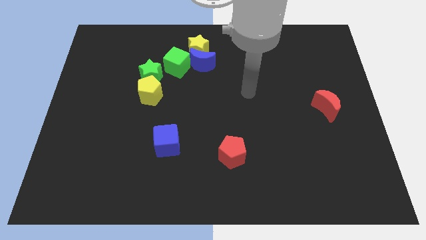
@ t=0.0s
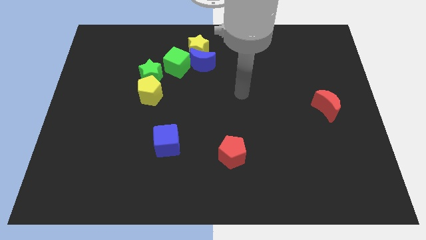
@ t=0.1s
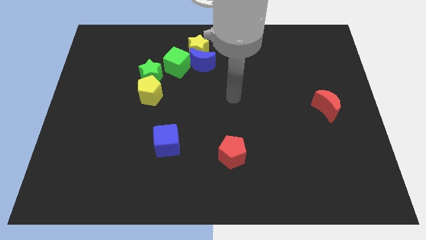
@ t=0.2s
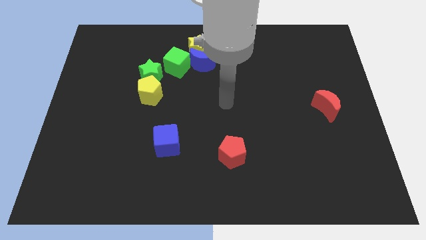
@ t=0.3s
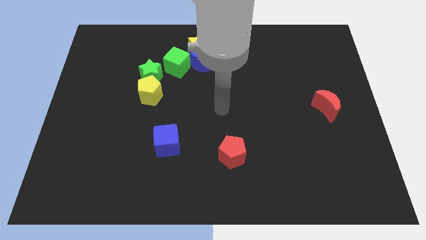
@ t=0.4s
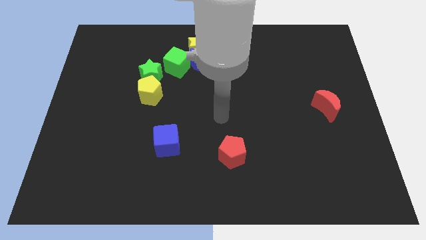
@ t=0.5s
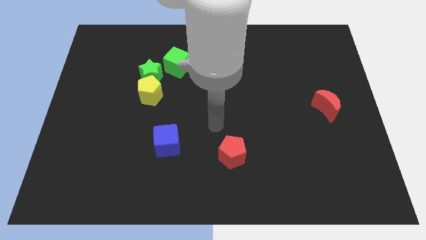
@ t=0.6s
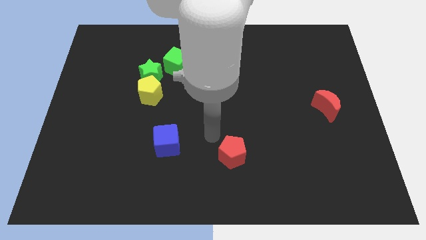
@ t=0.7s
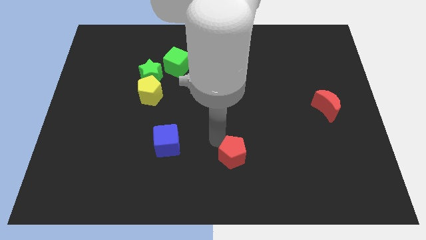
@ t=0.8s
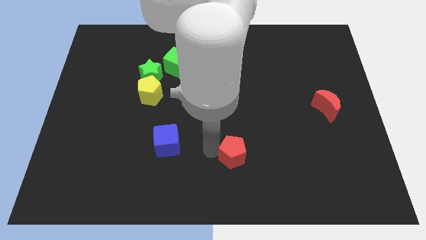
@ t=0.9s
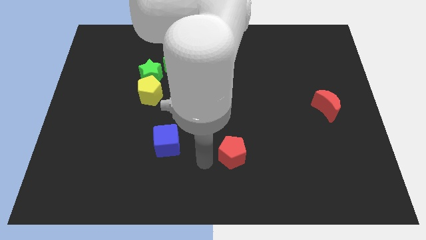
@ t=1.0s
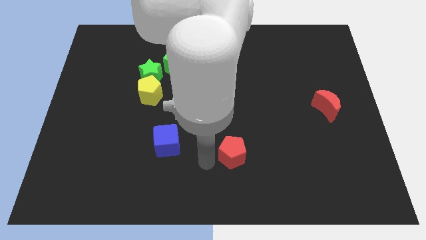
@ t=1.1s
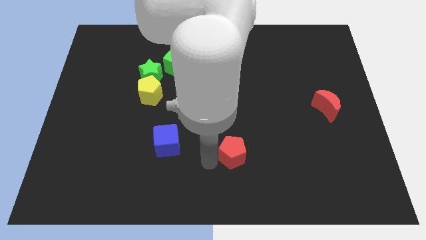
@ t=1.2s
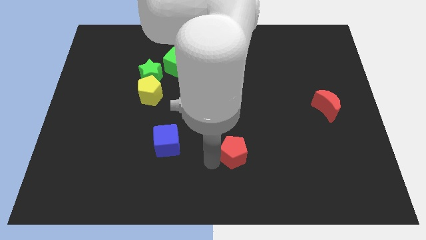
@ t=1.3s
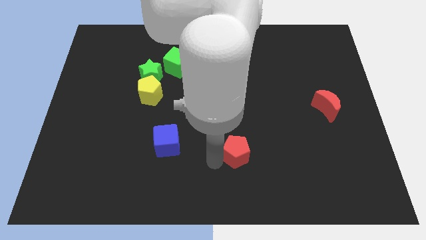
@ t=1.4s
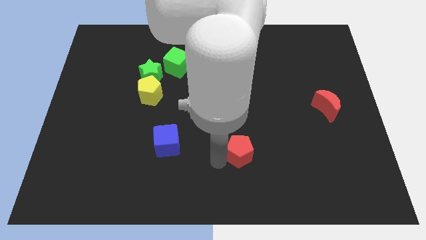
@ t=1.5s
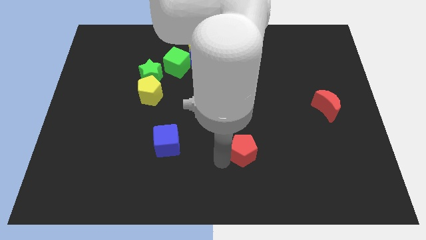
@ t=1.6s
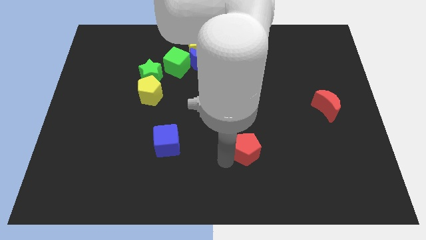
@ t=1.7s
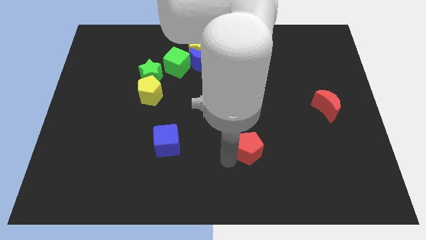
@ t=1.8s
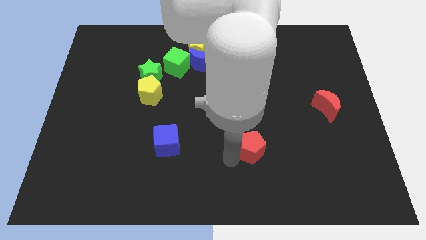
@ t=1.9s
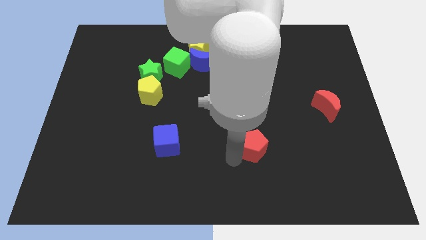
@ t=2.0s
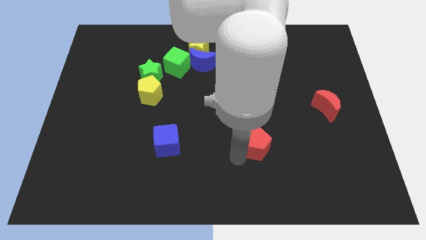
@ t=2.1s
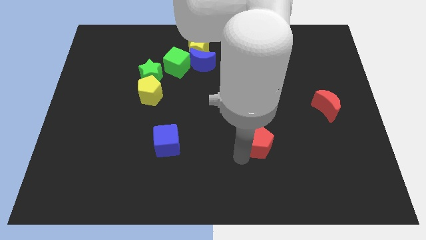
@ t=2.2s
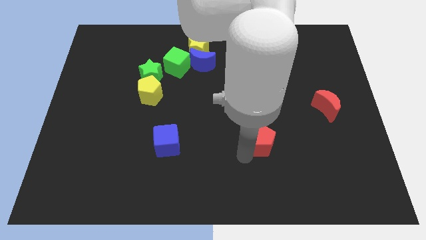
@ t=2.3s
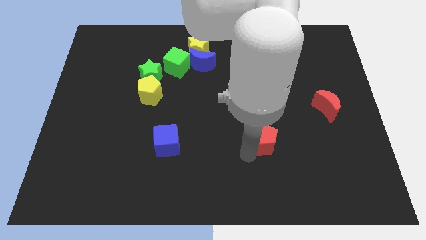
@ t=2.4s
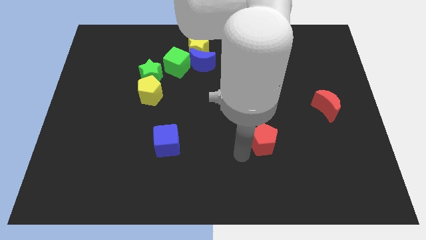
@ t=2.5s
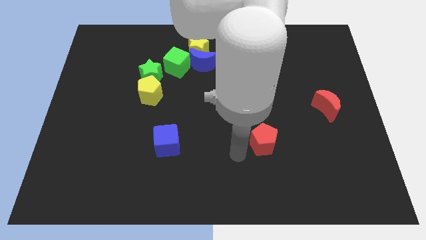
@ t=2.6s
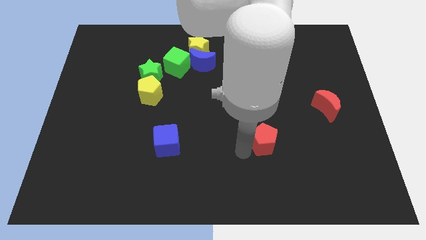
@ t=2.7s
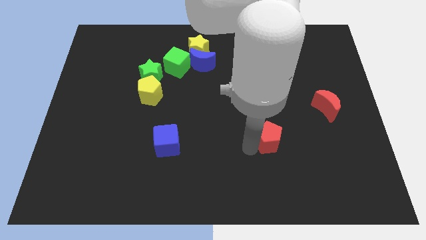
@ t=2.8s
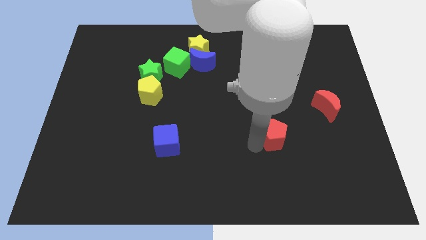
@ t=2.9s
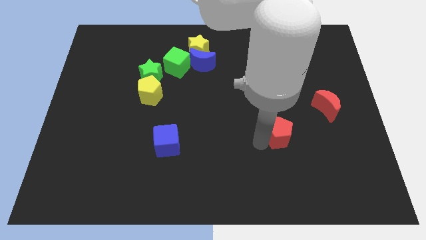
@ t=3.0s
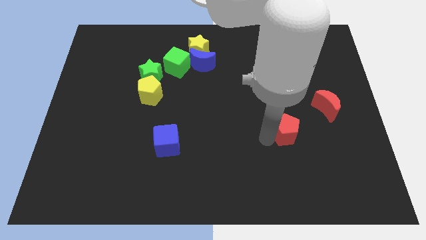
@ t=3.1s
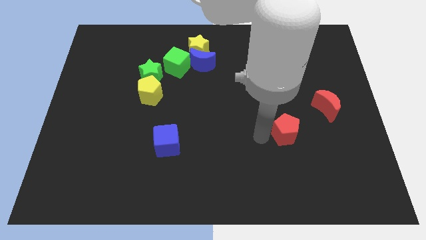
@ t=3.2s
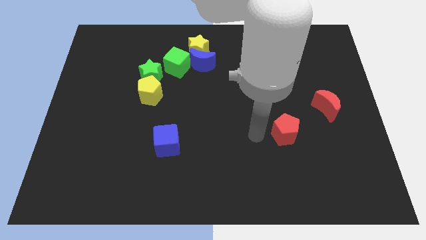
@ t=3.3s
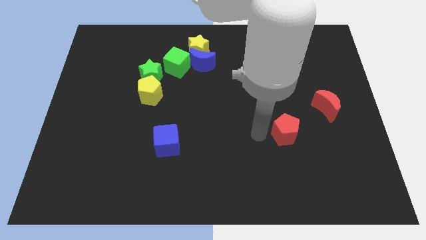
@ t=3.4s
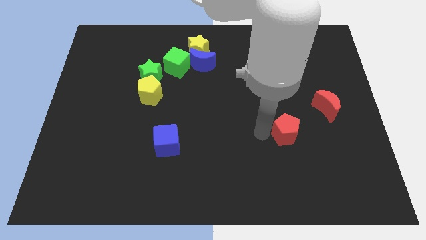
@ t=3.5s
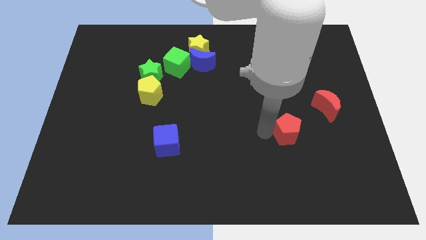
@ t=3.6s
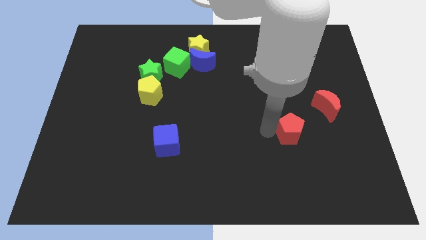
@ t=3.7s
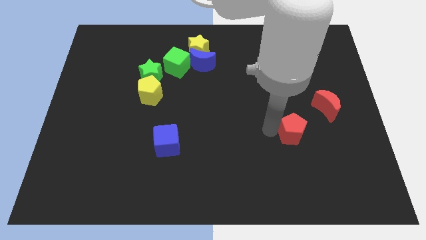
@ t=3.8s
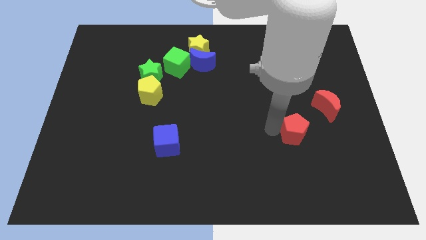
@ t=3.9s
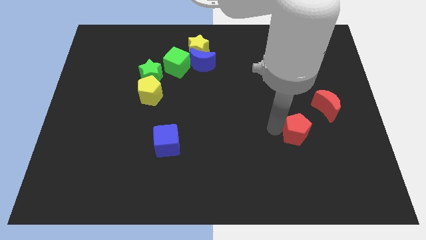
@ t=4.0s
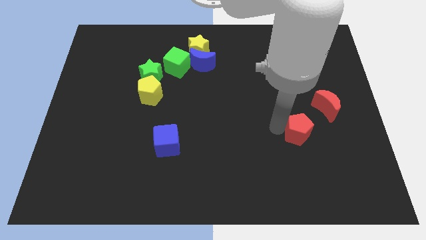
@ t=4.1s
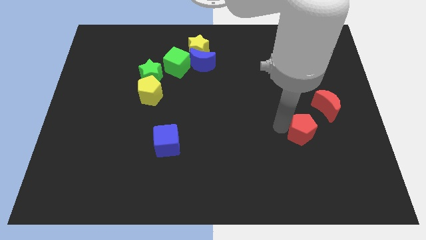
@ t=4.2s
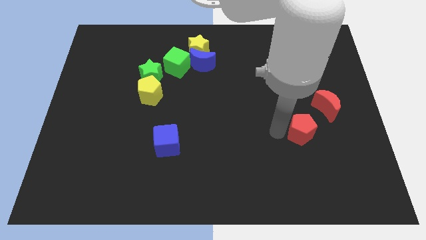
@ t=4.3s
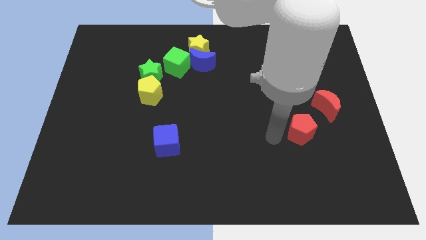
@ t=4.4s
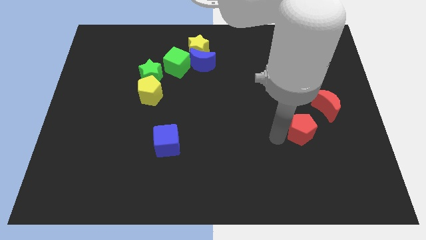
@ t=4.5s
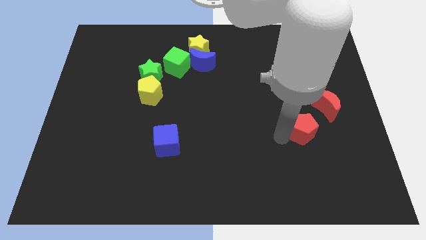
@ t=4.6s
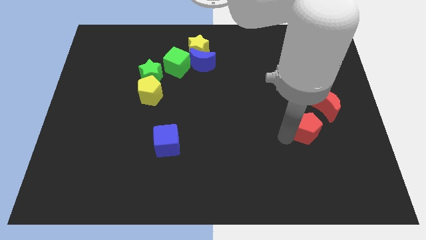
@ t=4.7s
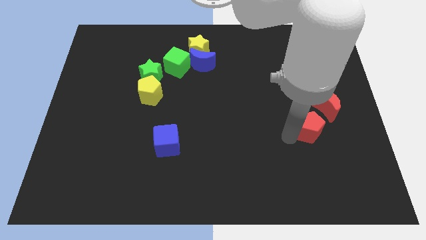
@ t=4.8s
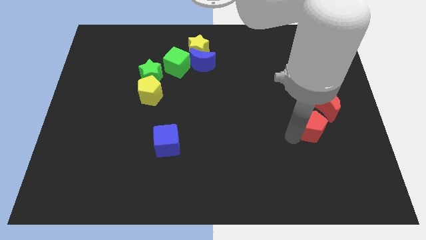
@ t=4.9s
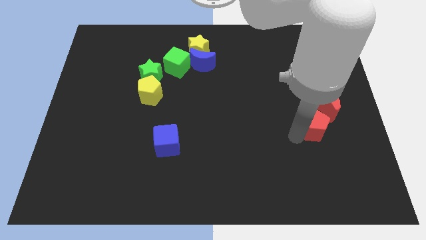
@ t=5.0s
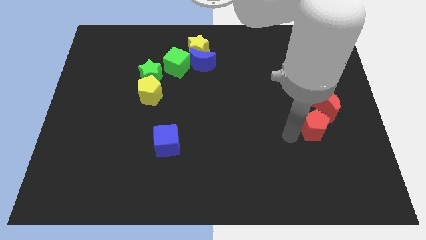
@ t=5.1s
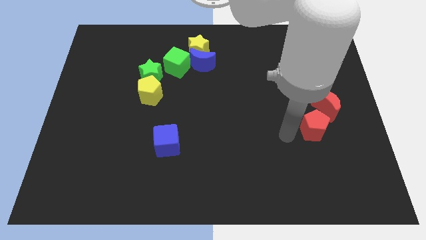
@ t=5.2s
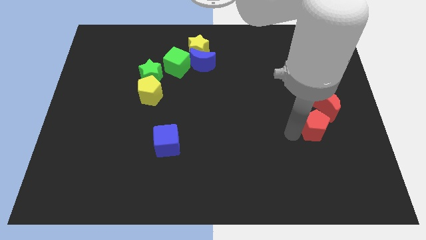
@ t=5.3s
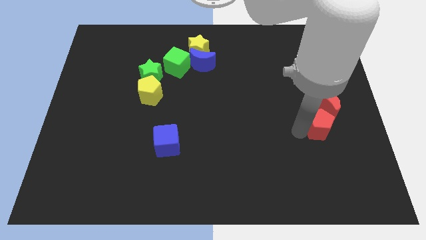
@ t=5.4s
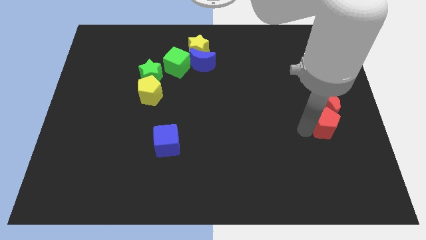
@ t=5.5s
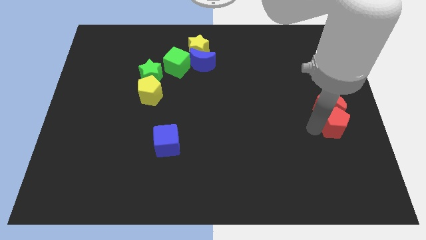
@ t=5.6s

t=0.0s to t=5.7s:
put the red pentagon to the right side of the board

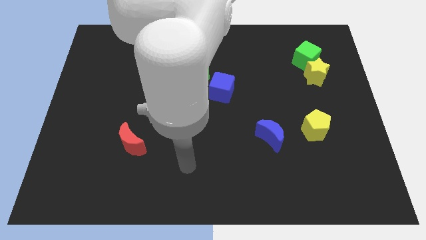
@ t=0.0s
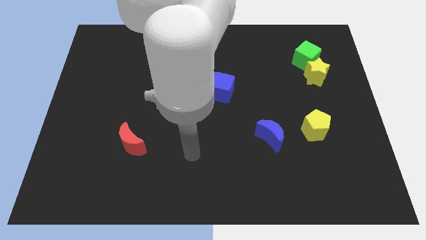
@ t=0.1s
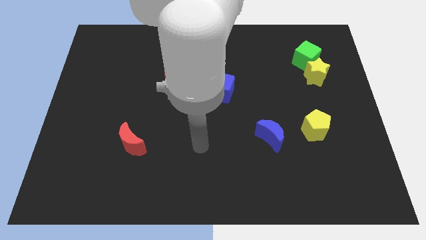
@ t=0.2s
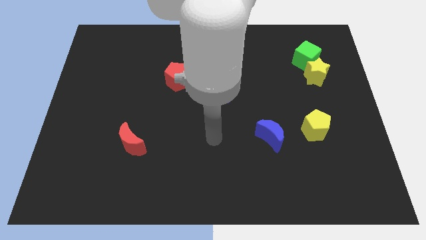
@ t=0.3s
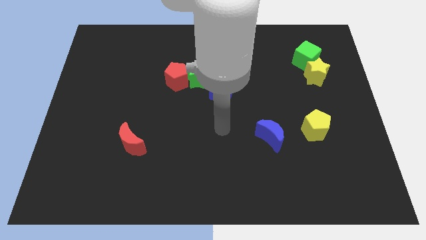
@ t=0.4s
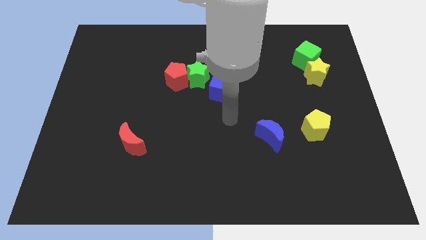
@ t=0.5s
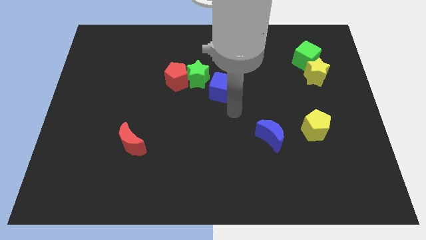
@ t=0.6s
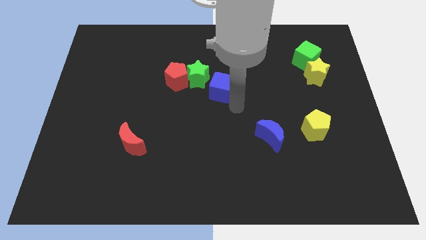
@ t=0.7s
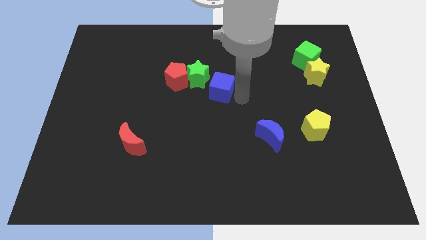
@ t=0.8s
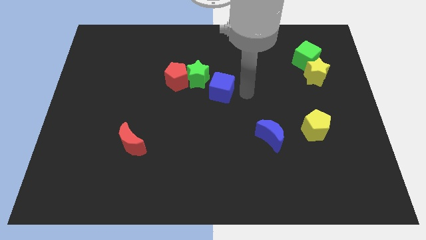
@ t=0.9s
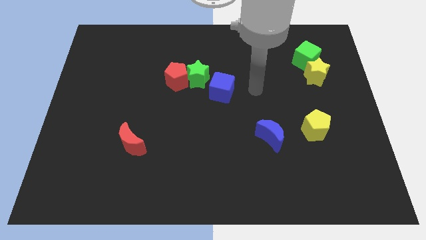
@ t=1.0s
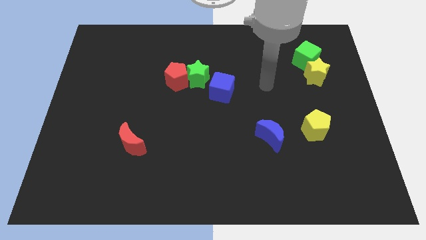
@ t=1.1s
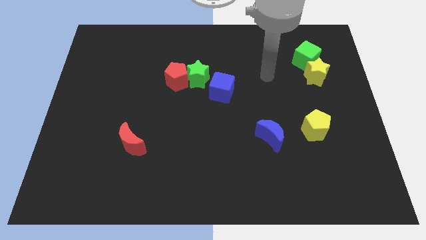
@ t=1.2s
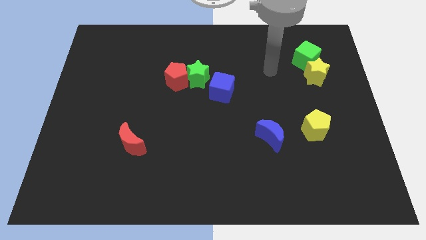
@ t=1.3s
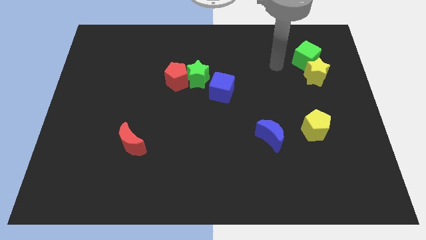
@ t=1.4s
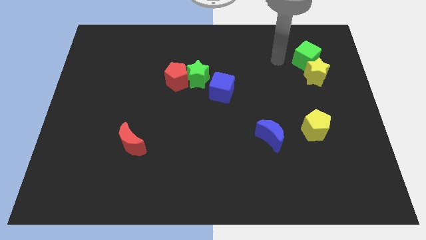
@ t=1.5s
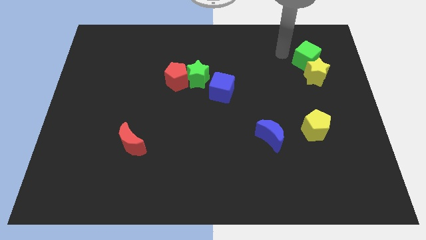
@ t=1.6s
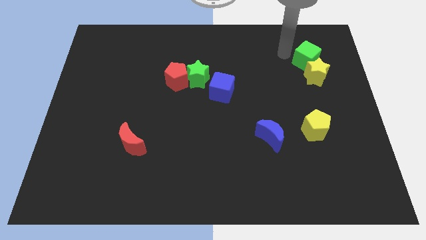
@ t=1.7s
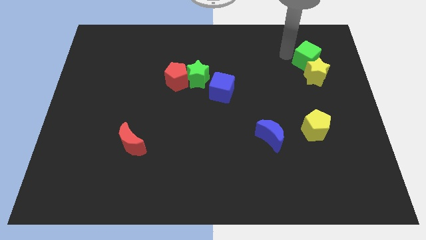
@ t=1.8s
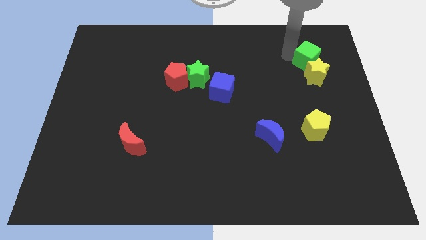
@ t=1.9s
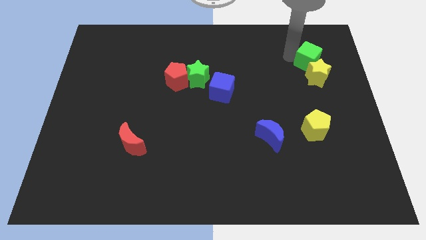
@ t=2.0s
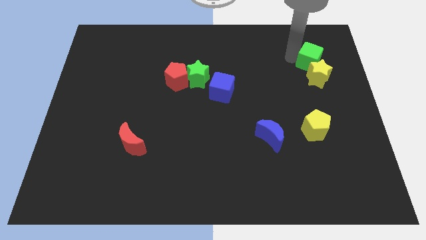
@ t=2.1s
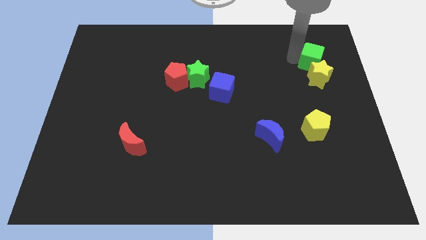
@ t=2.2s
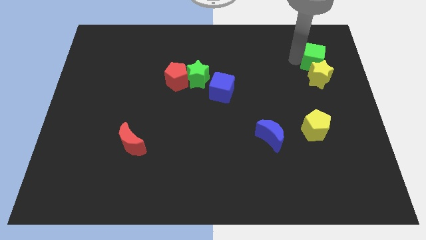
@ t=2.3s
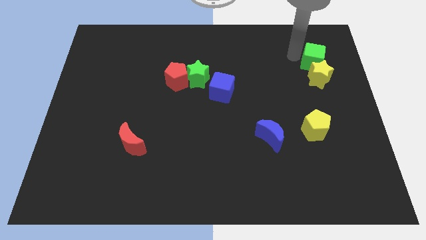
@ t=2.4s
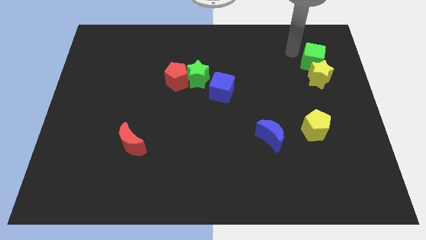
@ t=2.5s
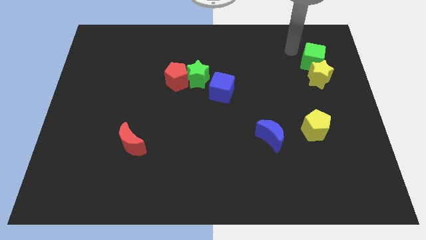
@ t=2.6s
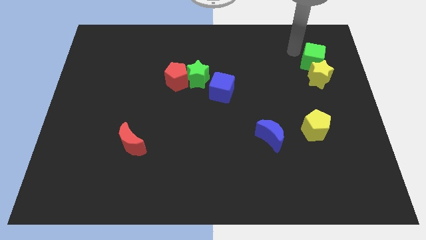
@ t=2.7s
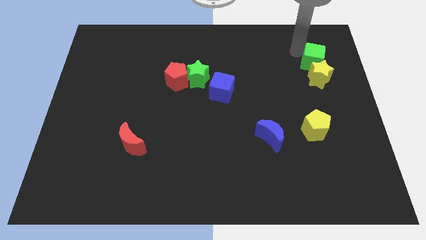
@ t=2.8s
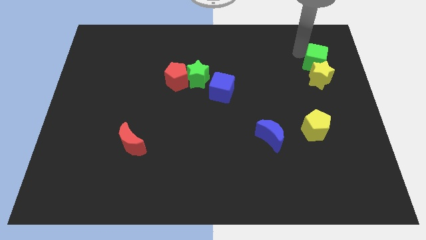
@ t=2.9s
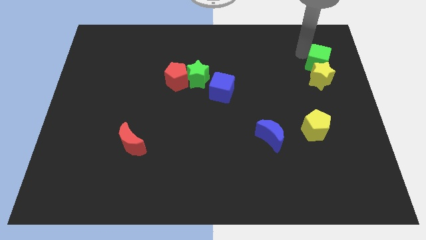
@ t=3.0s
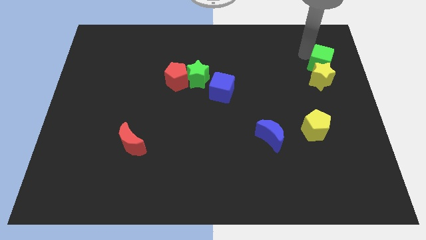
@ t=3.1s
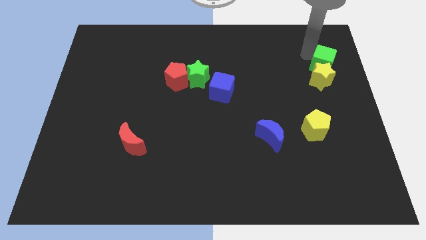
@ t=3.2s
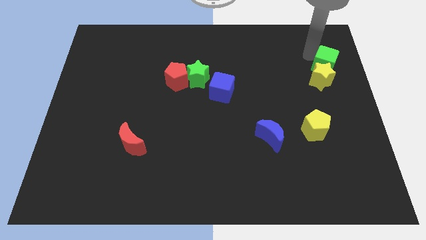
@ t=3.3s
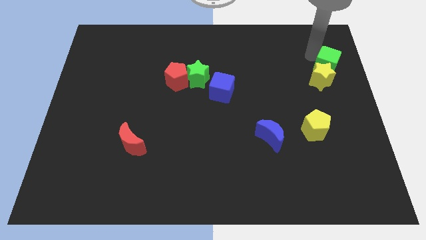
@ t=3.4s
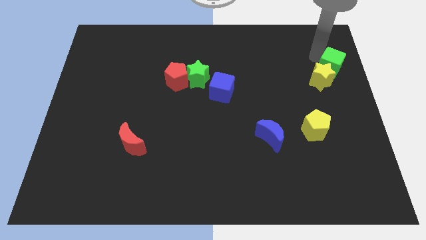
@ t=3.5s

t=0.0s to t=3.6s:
slide the green cube to the right side
